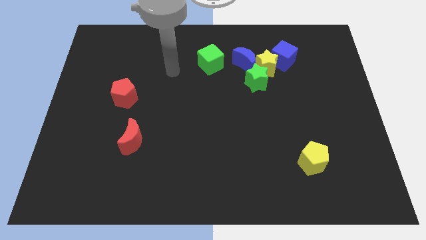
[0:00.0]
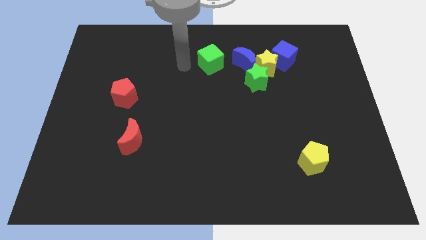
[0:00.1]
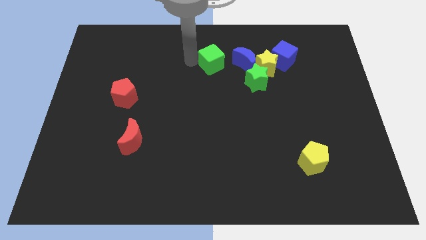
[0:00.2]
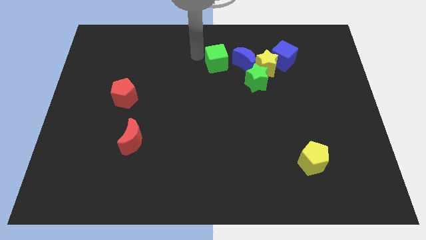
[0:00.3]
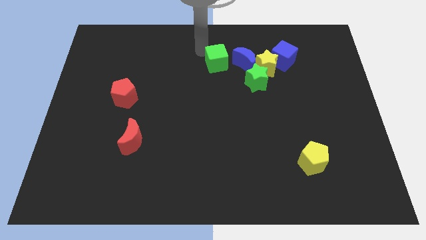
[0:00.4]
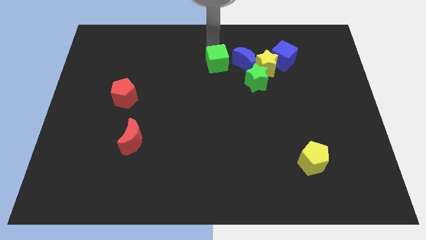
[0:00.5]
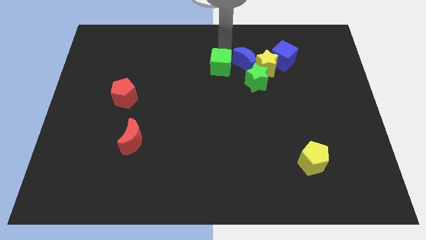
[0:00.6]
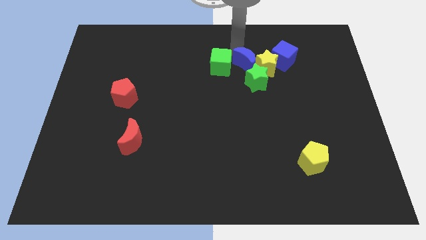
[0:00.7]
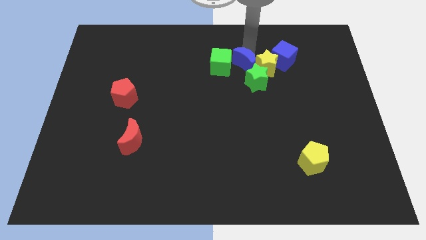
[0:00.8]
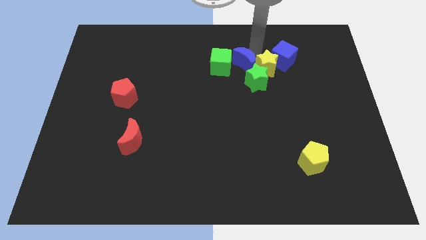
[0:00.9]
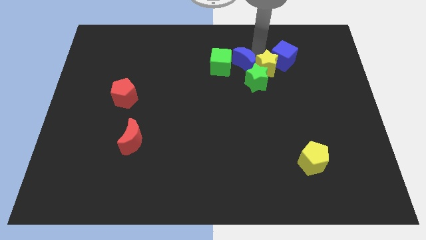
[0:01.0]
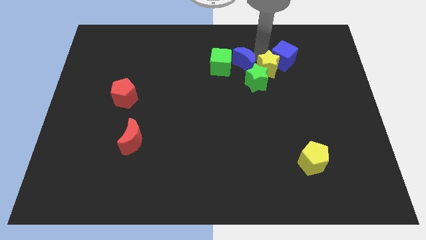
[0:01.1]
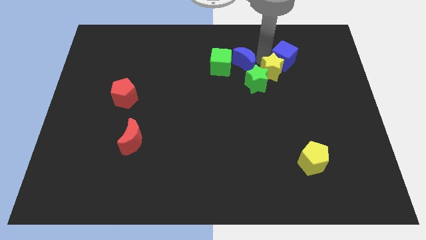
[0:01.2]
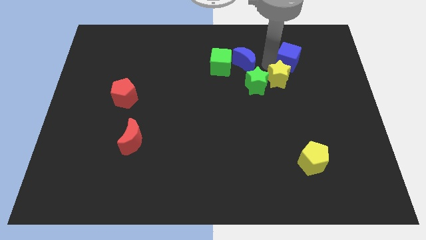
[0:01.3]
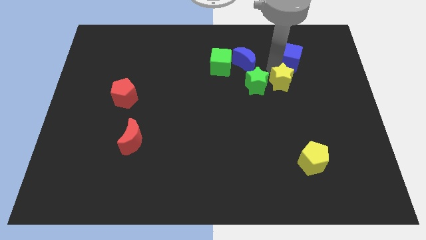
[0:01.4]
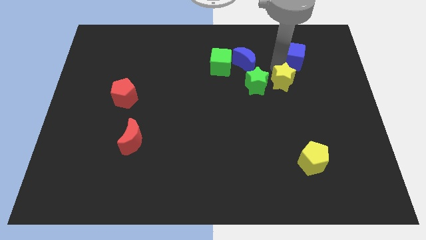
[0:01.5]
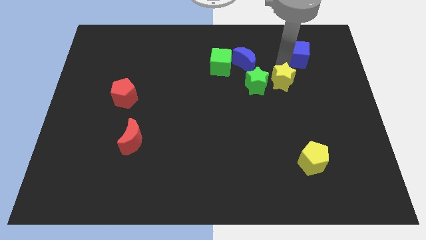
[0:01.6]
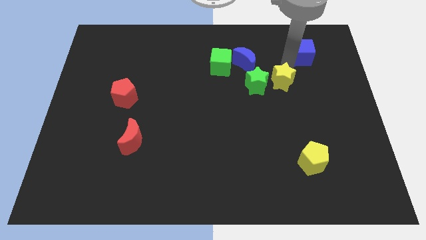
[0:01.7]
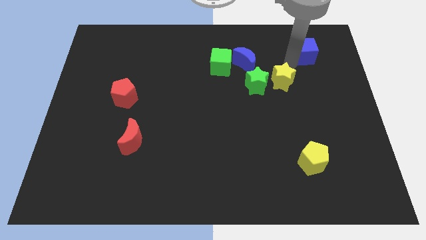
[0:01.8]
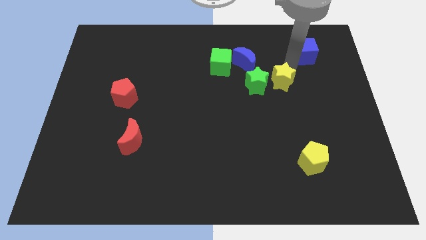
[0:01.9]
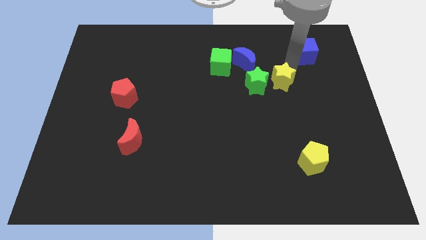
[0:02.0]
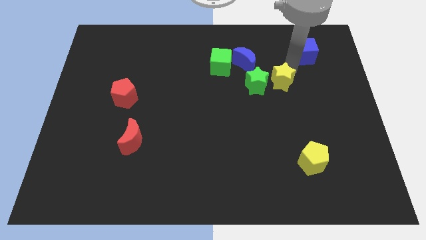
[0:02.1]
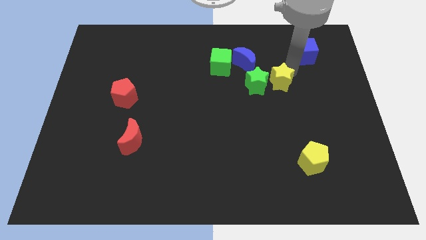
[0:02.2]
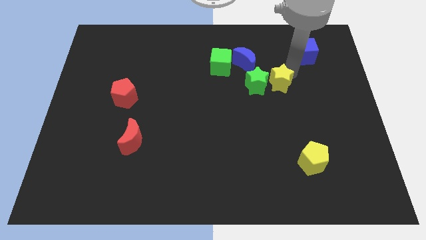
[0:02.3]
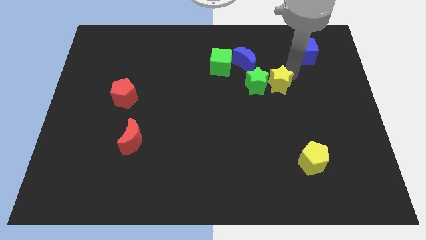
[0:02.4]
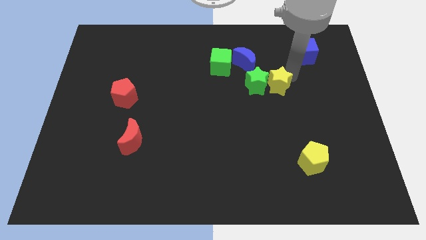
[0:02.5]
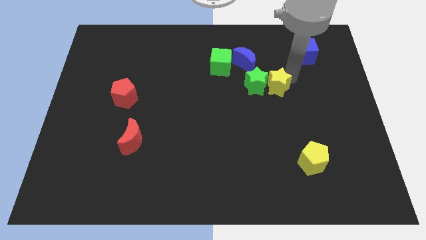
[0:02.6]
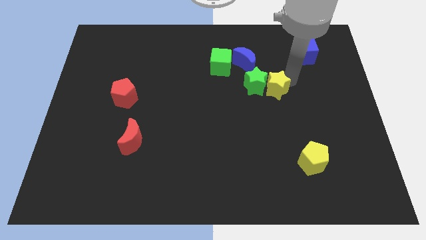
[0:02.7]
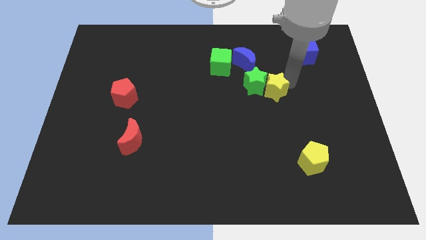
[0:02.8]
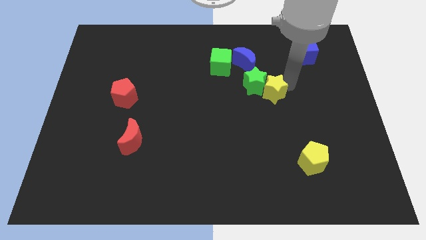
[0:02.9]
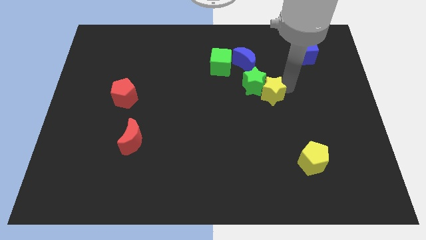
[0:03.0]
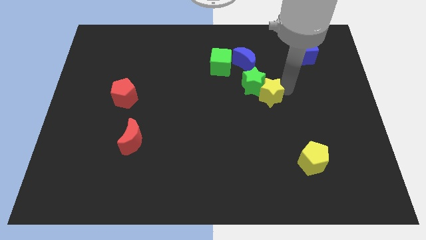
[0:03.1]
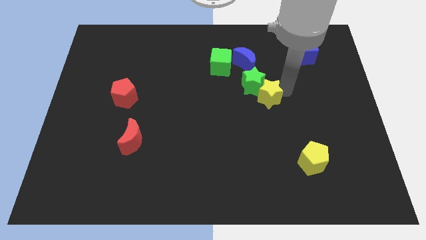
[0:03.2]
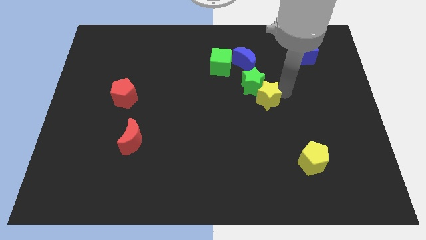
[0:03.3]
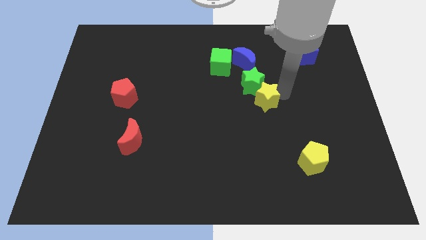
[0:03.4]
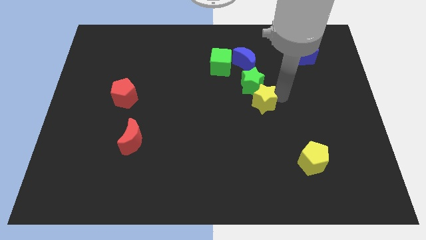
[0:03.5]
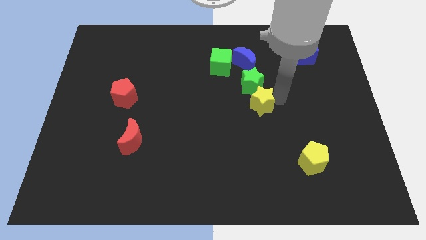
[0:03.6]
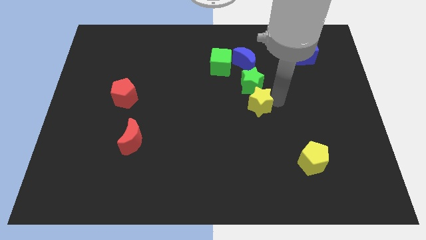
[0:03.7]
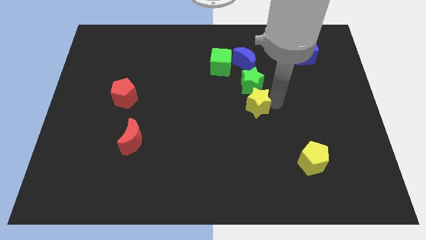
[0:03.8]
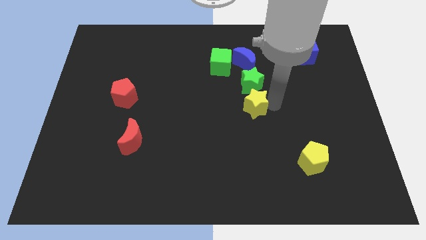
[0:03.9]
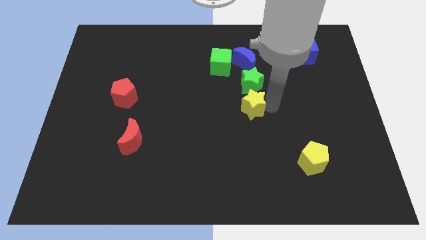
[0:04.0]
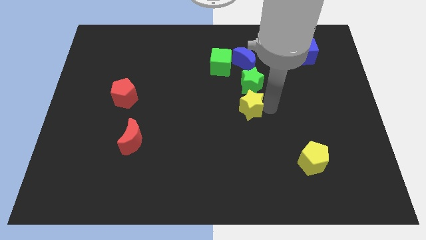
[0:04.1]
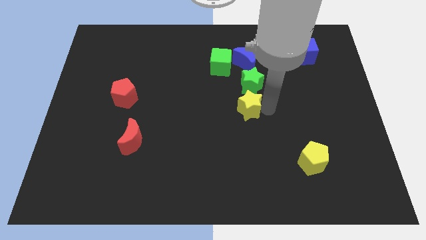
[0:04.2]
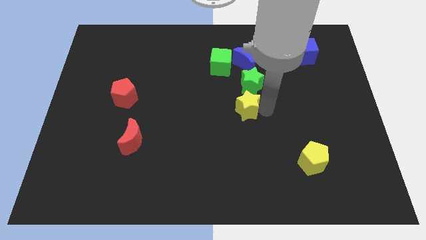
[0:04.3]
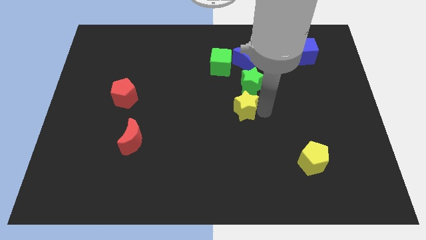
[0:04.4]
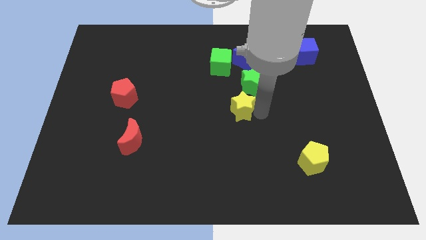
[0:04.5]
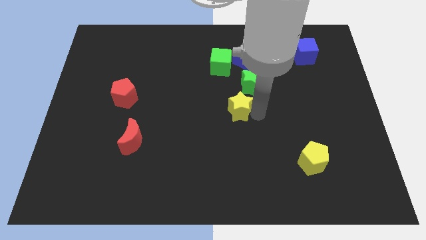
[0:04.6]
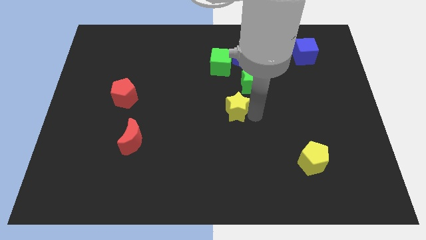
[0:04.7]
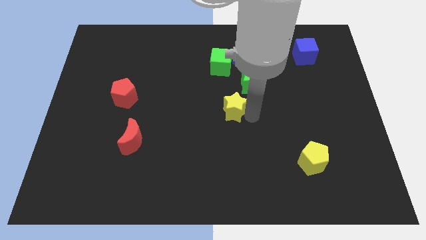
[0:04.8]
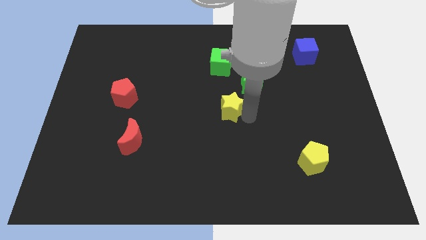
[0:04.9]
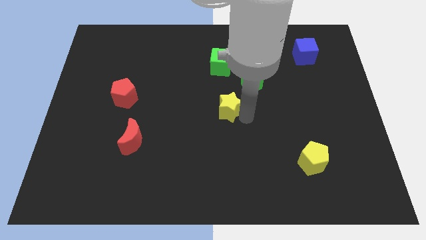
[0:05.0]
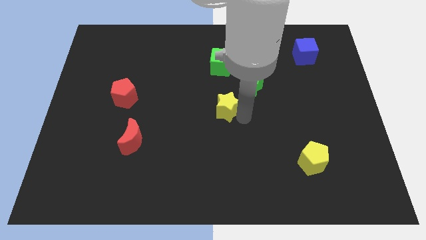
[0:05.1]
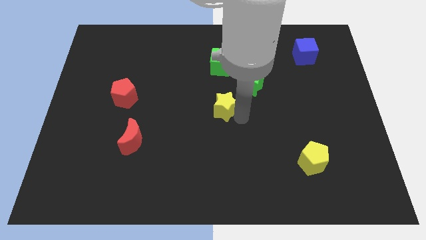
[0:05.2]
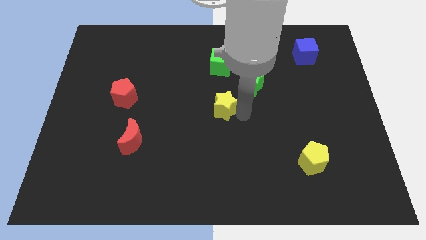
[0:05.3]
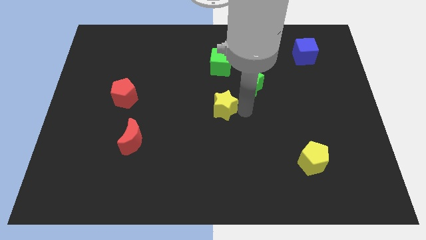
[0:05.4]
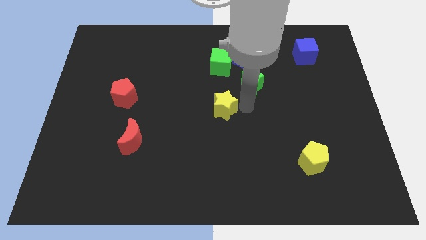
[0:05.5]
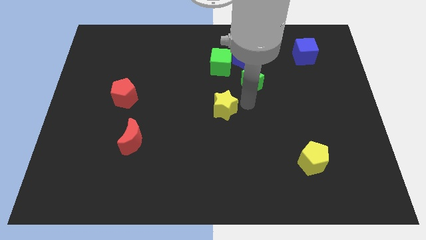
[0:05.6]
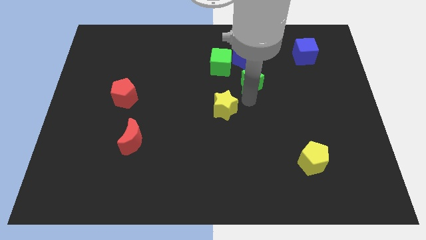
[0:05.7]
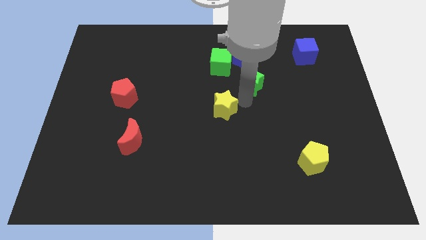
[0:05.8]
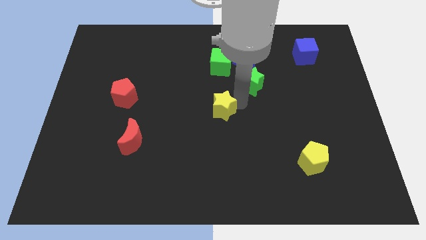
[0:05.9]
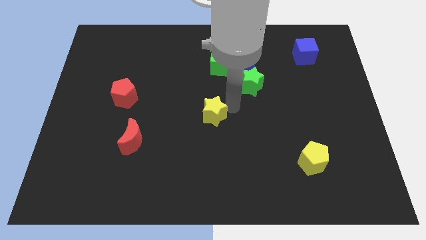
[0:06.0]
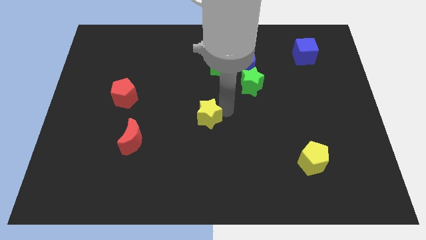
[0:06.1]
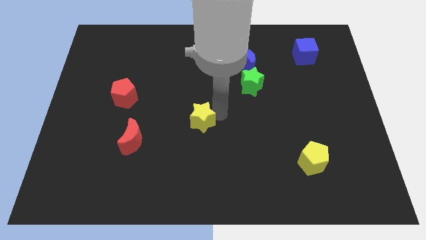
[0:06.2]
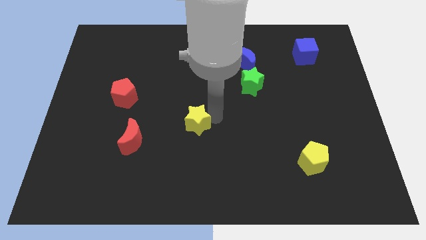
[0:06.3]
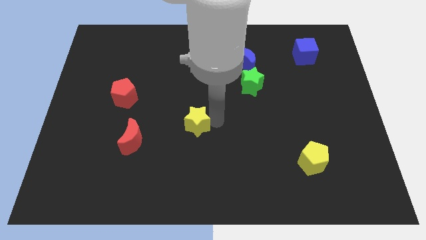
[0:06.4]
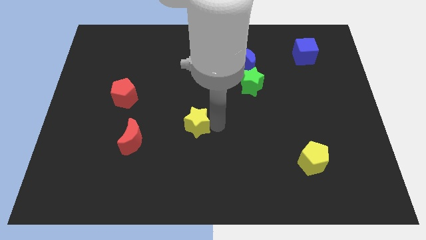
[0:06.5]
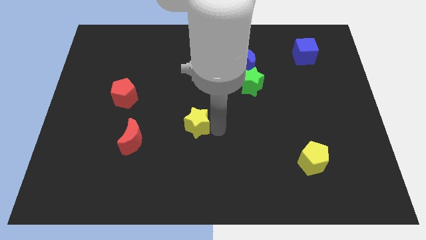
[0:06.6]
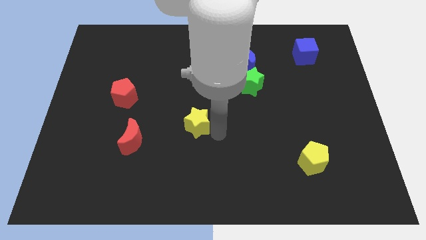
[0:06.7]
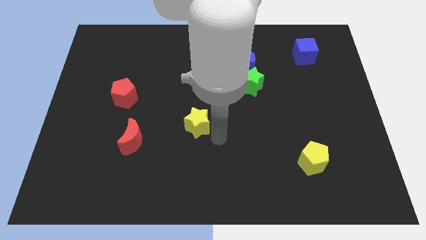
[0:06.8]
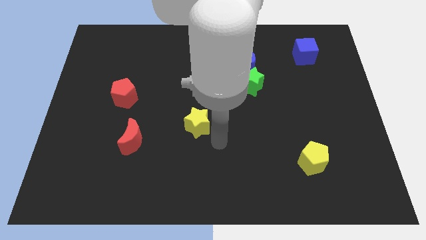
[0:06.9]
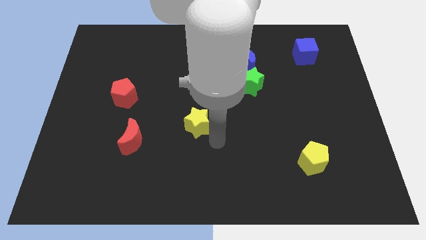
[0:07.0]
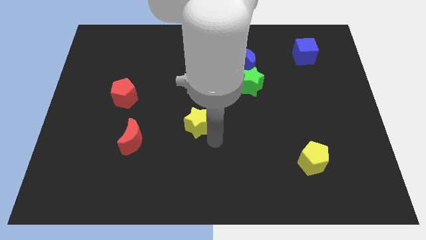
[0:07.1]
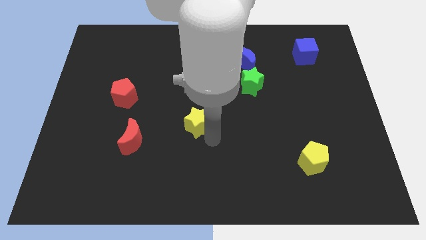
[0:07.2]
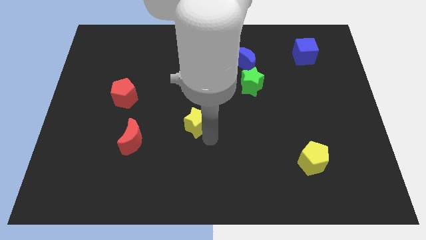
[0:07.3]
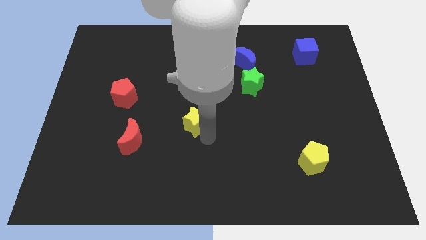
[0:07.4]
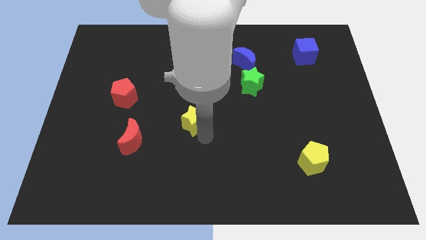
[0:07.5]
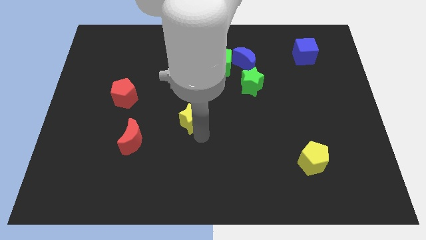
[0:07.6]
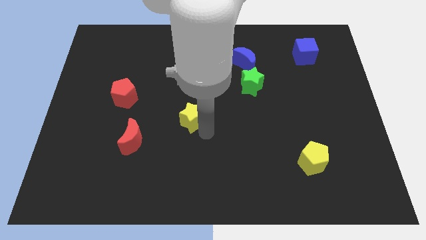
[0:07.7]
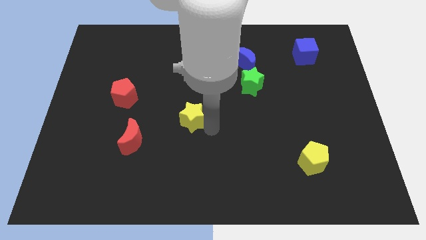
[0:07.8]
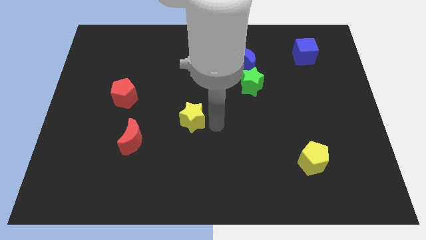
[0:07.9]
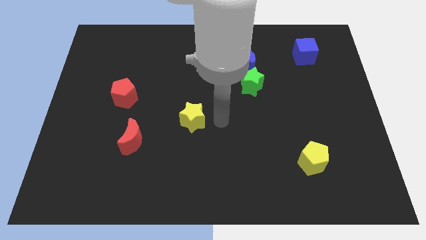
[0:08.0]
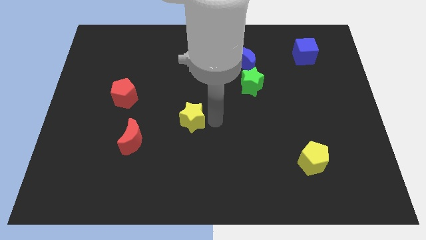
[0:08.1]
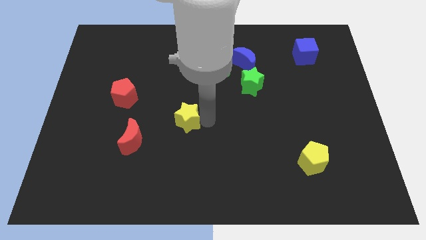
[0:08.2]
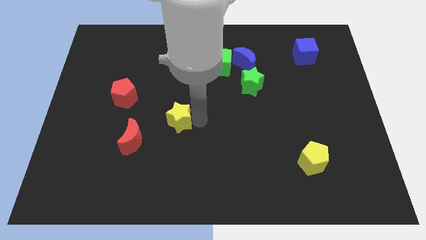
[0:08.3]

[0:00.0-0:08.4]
move the yellow star to the top right side of the red moon
